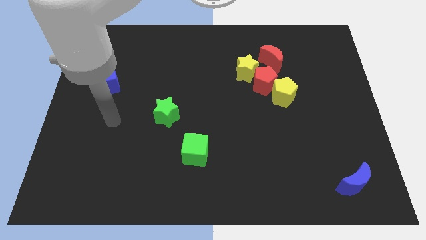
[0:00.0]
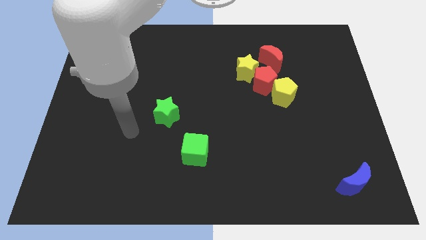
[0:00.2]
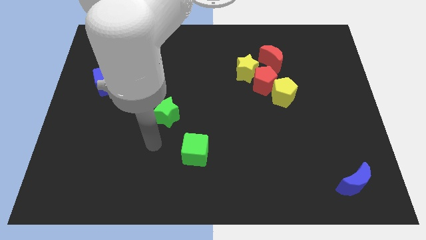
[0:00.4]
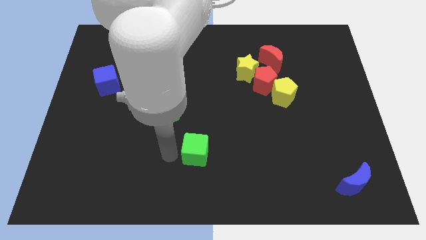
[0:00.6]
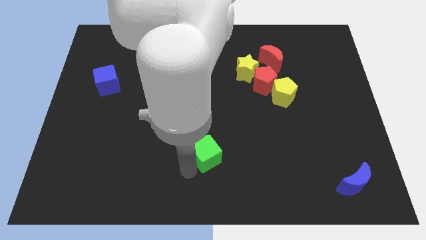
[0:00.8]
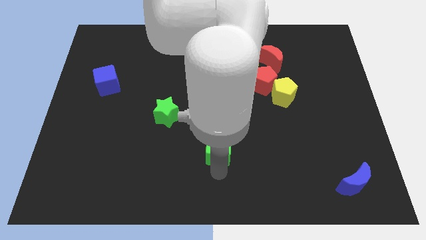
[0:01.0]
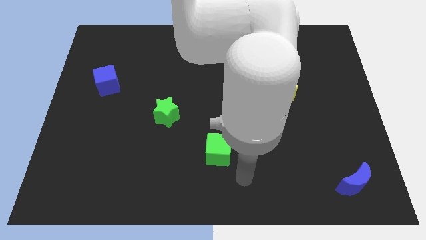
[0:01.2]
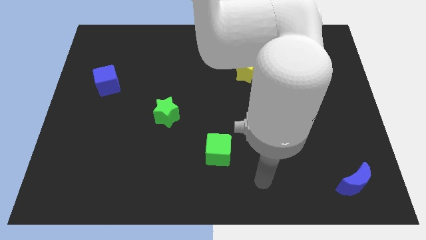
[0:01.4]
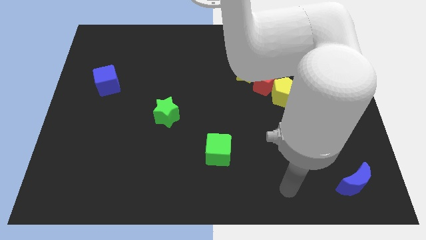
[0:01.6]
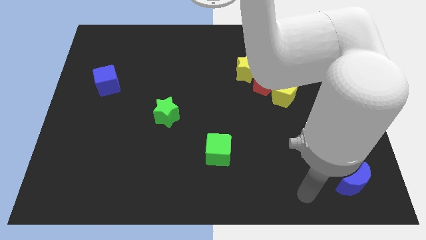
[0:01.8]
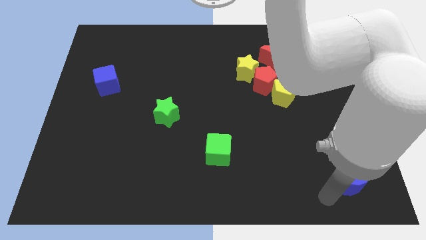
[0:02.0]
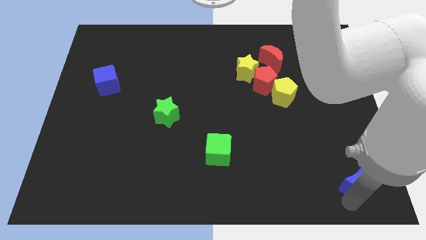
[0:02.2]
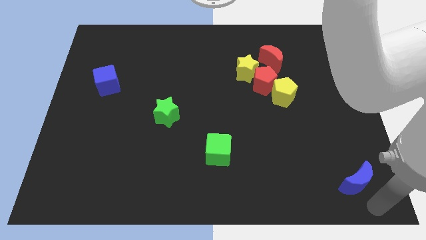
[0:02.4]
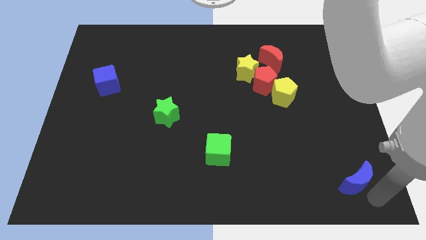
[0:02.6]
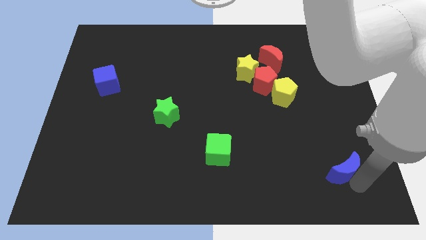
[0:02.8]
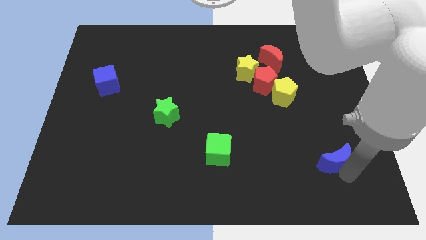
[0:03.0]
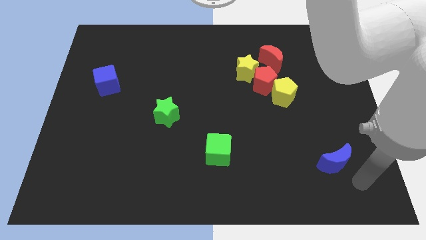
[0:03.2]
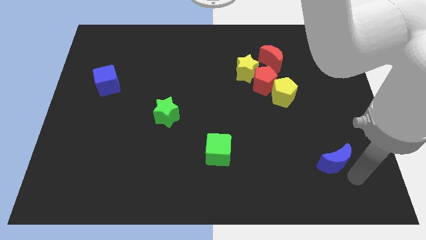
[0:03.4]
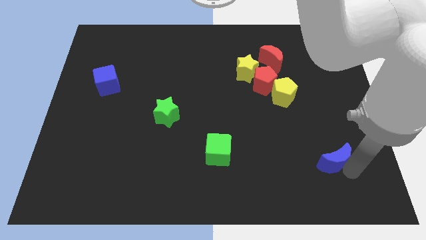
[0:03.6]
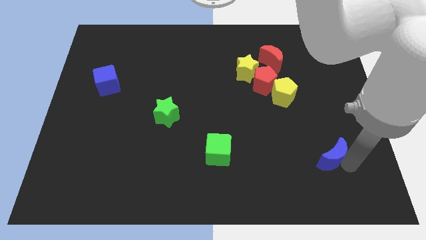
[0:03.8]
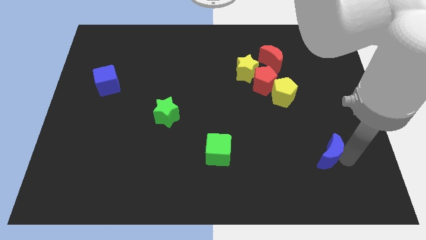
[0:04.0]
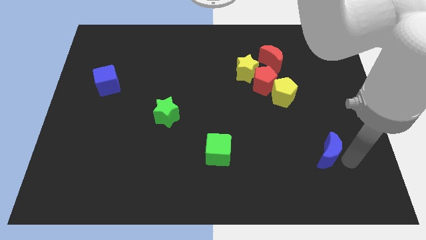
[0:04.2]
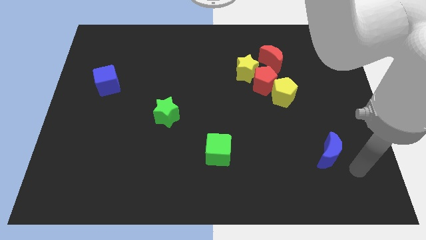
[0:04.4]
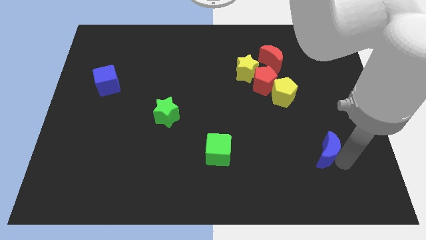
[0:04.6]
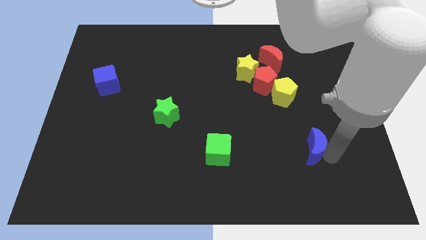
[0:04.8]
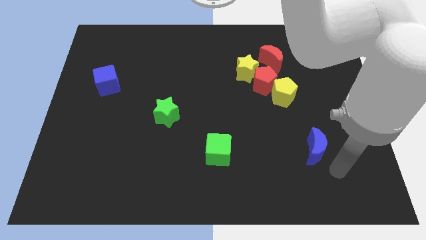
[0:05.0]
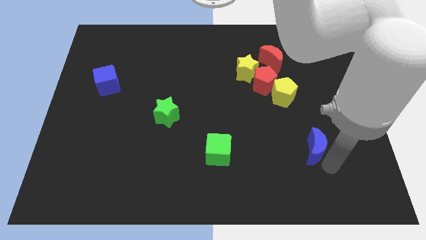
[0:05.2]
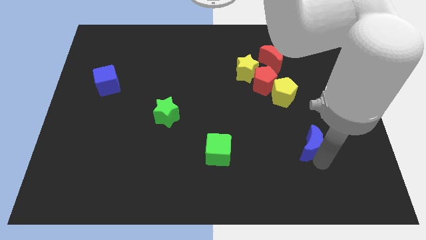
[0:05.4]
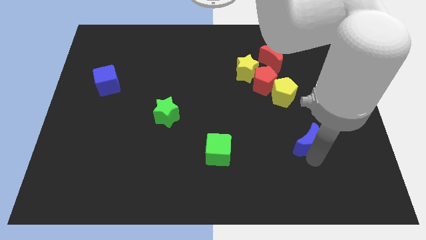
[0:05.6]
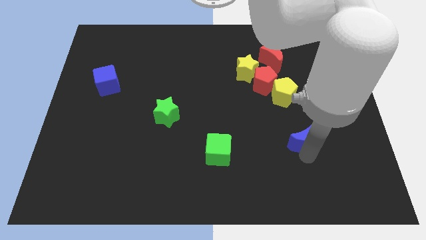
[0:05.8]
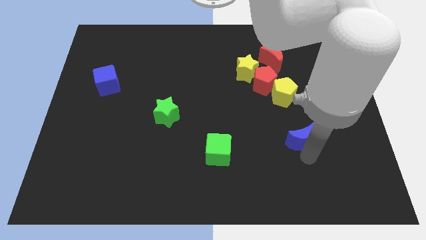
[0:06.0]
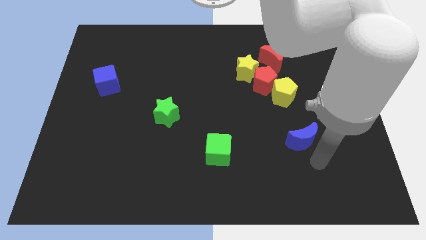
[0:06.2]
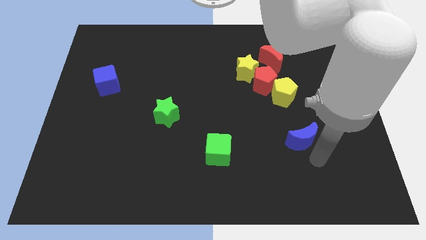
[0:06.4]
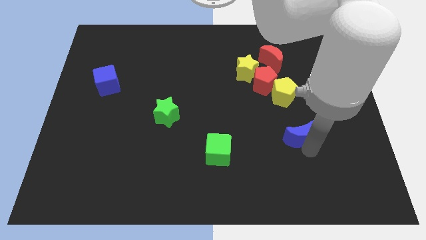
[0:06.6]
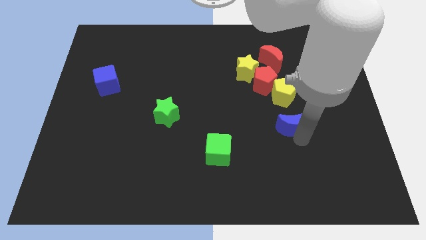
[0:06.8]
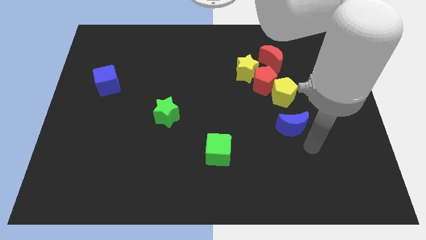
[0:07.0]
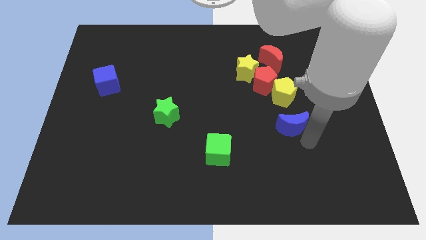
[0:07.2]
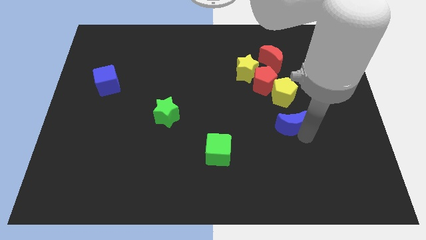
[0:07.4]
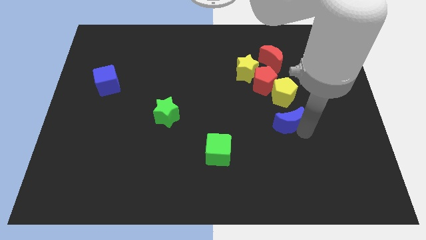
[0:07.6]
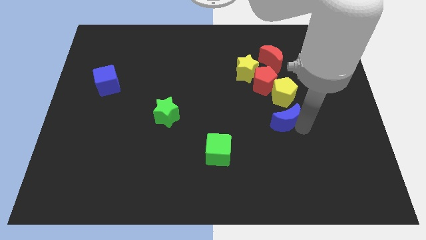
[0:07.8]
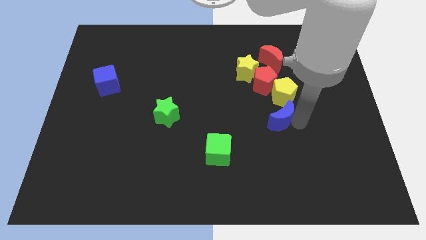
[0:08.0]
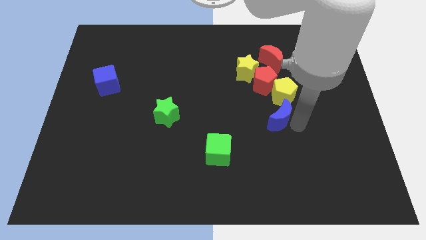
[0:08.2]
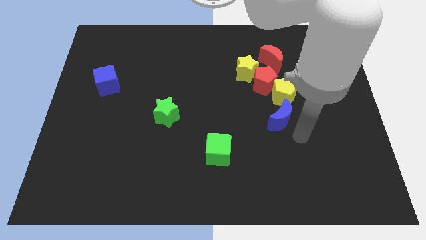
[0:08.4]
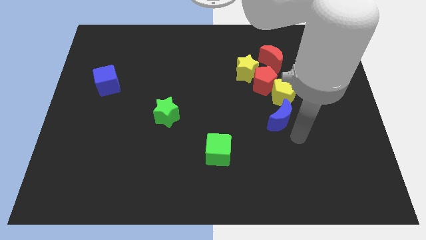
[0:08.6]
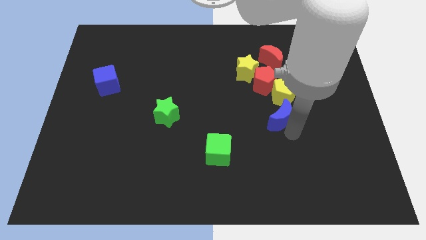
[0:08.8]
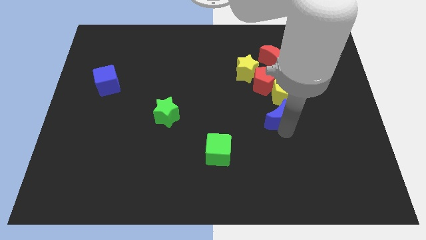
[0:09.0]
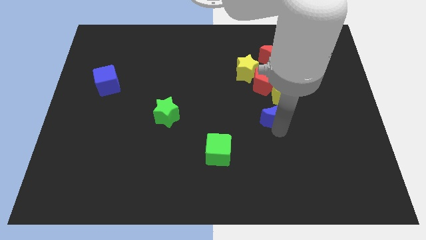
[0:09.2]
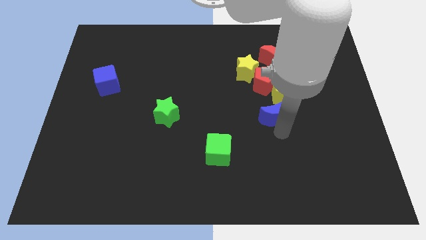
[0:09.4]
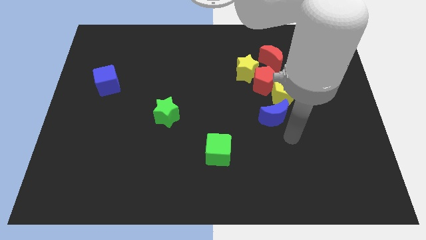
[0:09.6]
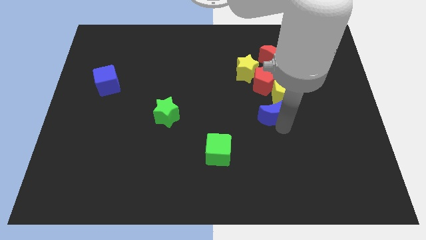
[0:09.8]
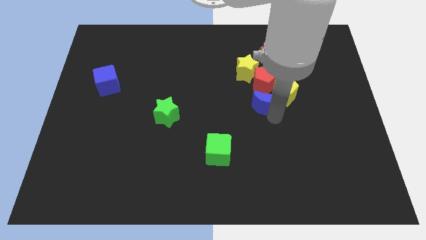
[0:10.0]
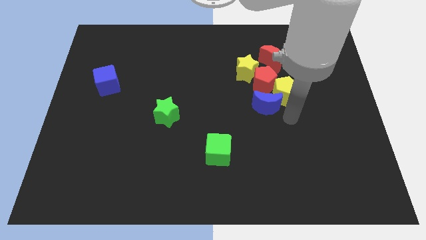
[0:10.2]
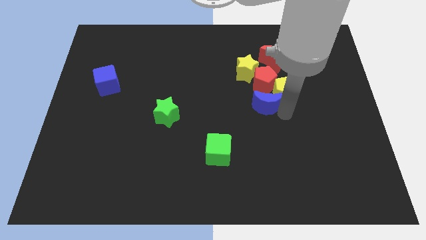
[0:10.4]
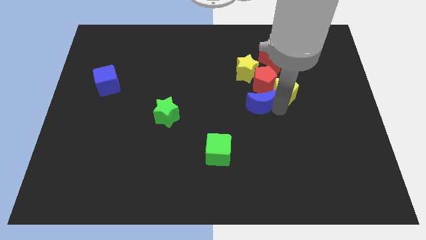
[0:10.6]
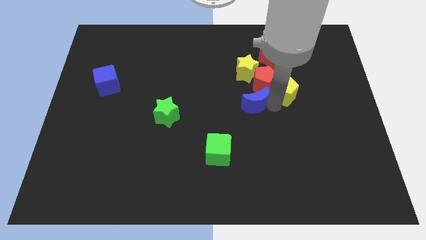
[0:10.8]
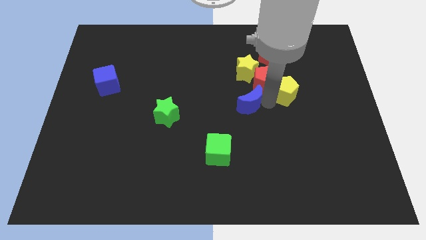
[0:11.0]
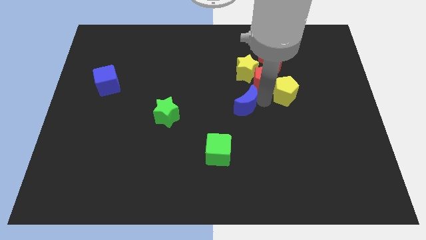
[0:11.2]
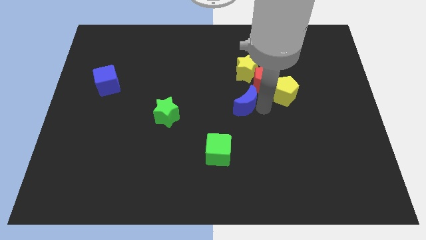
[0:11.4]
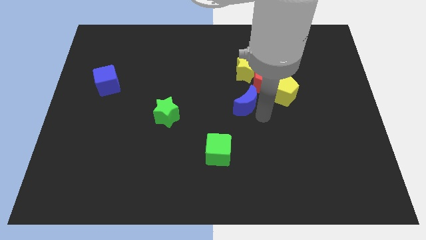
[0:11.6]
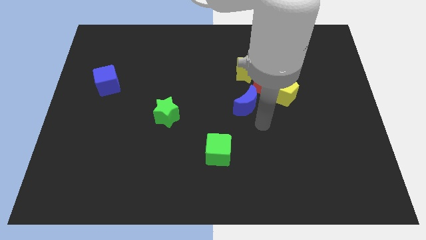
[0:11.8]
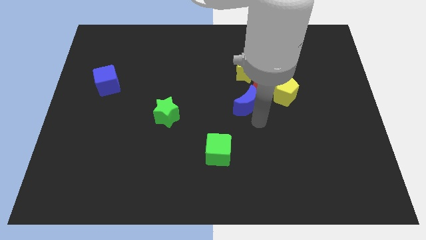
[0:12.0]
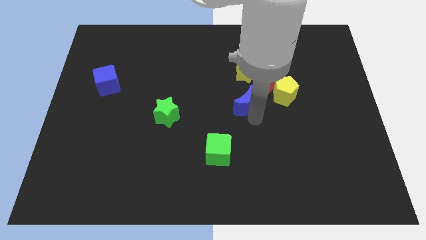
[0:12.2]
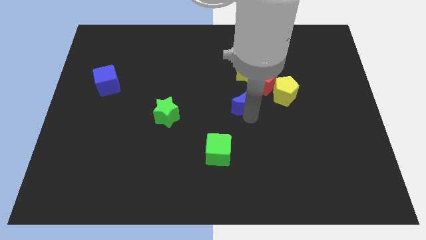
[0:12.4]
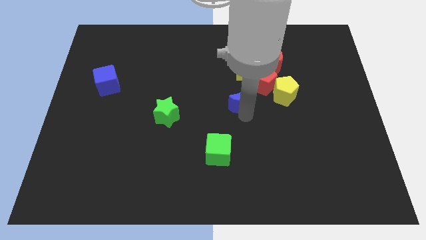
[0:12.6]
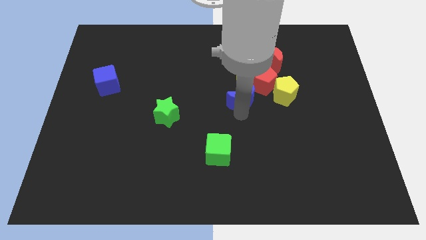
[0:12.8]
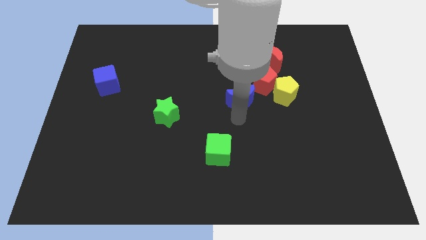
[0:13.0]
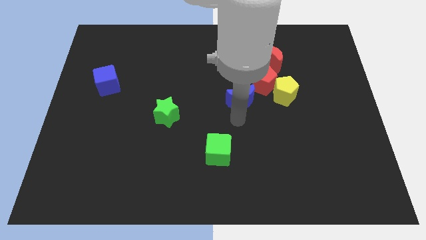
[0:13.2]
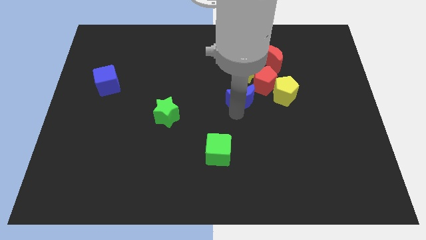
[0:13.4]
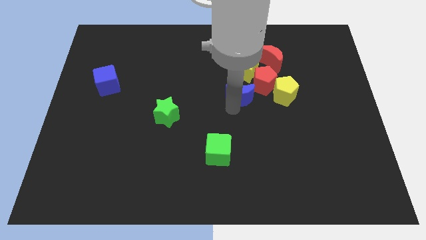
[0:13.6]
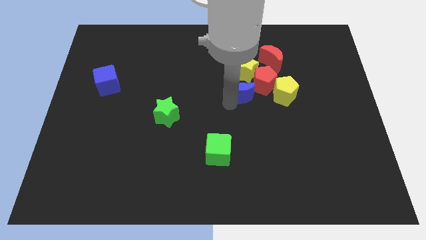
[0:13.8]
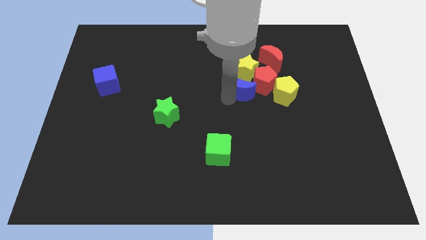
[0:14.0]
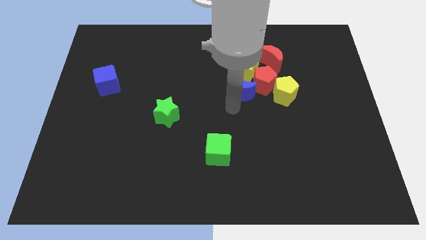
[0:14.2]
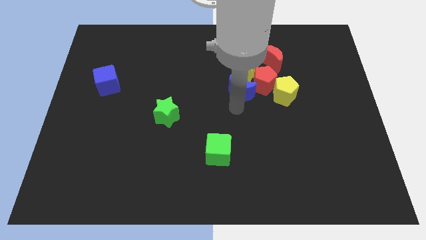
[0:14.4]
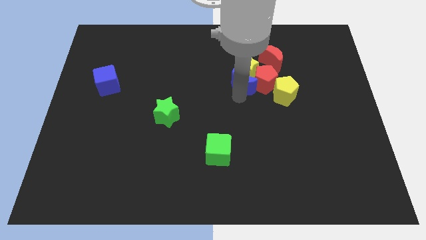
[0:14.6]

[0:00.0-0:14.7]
put the blue moon to the yellow star

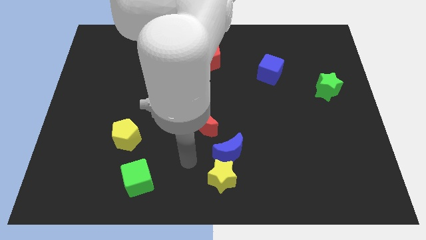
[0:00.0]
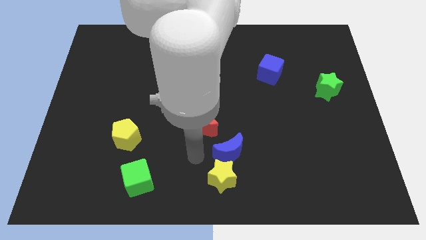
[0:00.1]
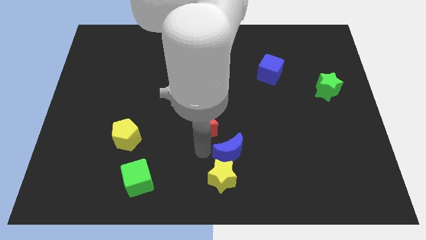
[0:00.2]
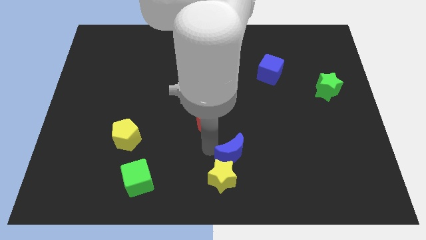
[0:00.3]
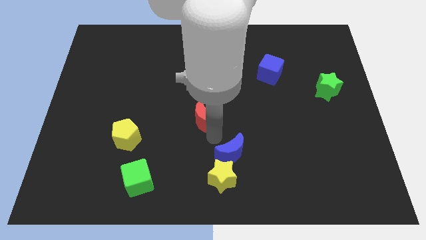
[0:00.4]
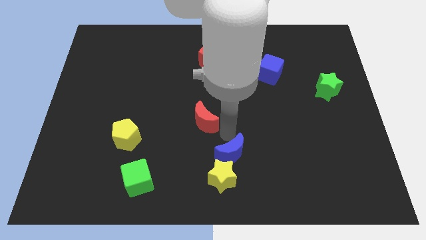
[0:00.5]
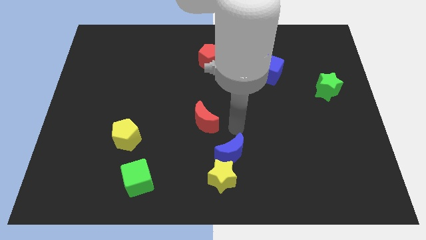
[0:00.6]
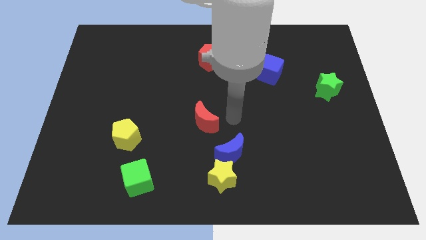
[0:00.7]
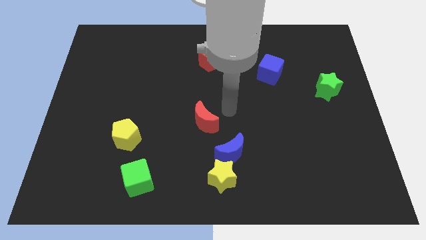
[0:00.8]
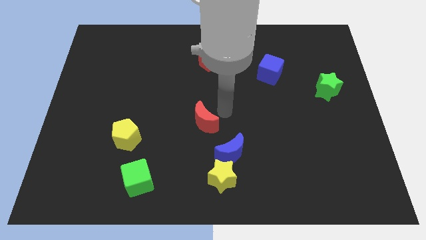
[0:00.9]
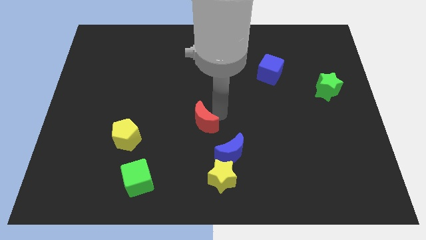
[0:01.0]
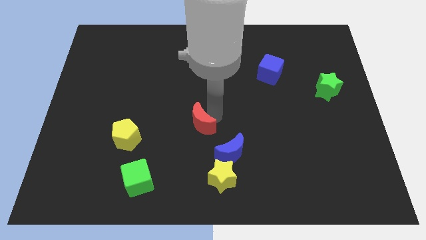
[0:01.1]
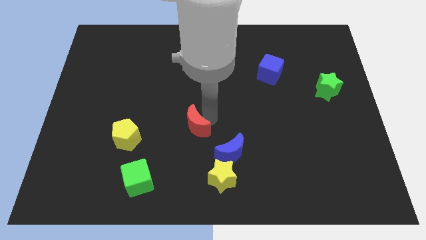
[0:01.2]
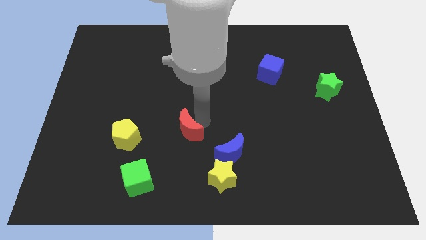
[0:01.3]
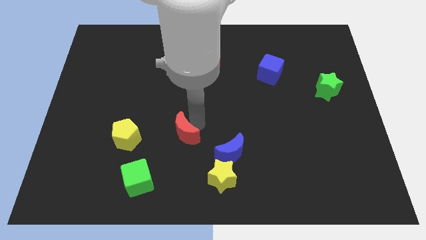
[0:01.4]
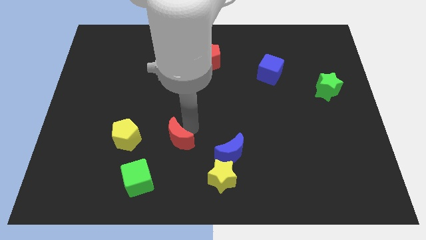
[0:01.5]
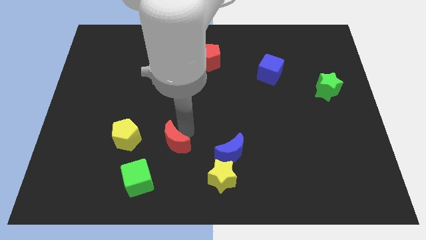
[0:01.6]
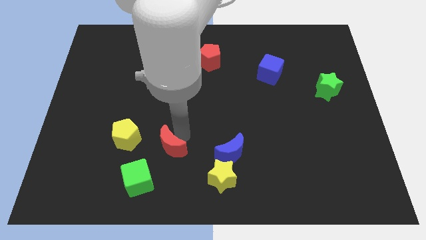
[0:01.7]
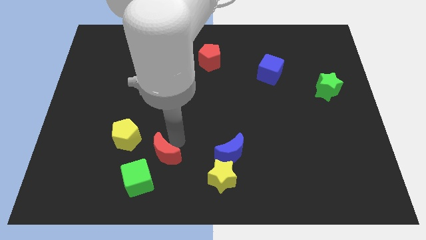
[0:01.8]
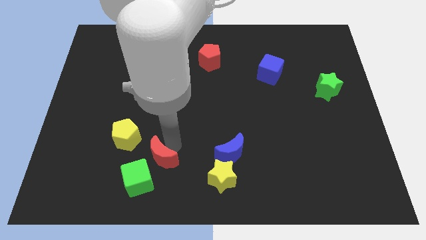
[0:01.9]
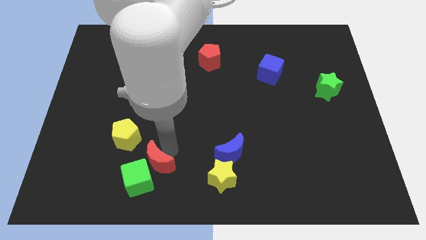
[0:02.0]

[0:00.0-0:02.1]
push the red moon to the green cube
